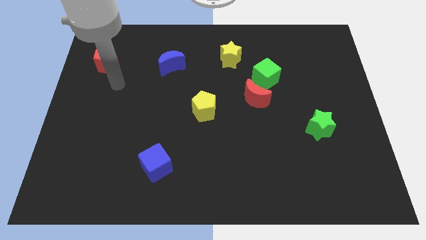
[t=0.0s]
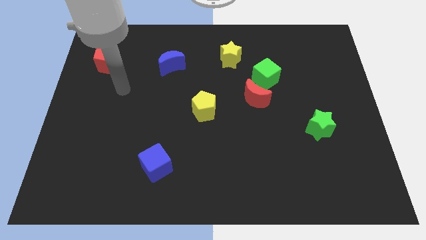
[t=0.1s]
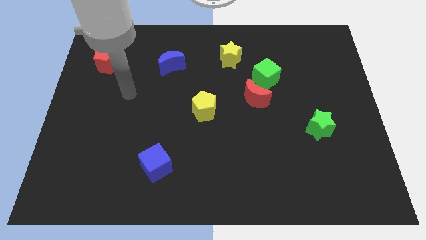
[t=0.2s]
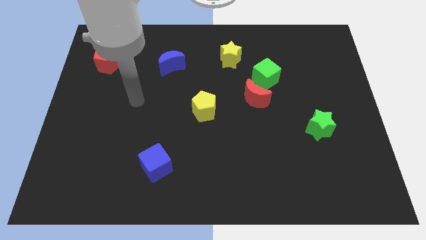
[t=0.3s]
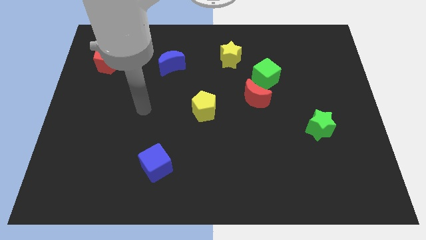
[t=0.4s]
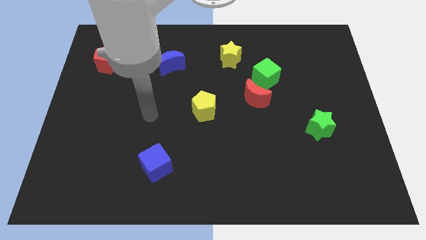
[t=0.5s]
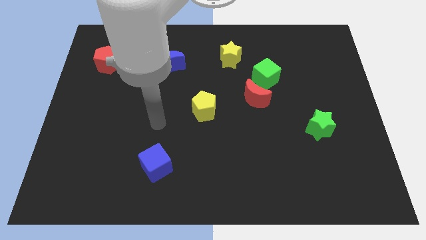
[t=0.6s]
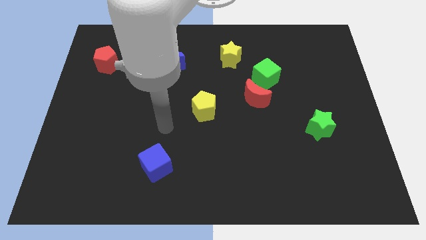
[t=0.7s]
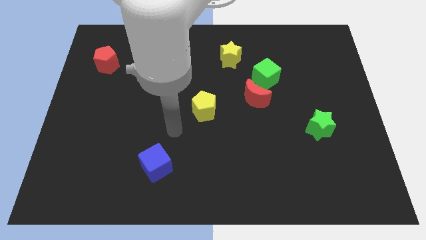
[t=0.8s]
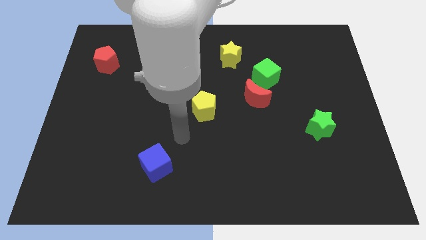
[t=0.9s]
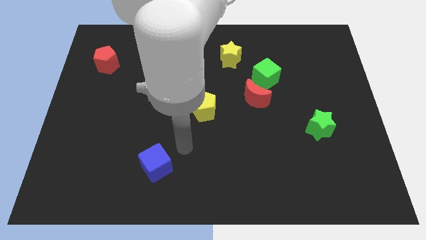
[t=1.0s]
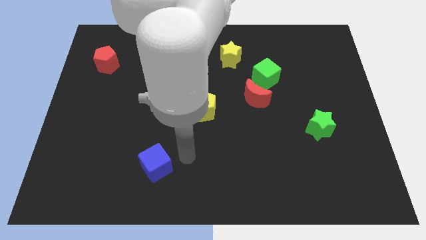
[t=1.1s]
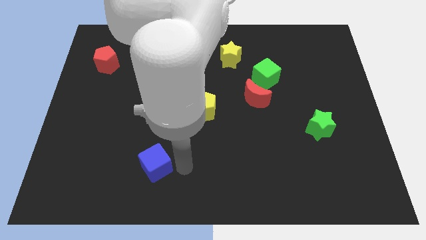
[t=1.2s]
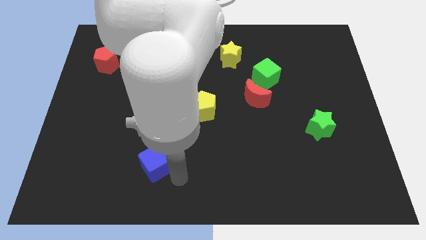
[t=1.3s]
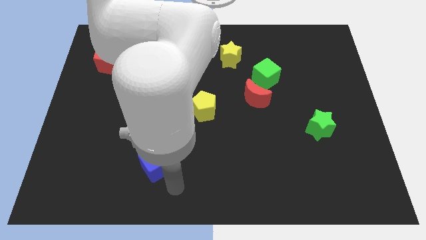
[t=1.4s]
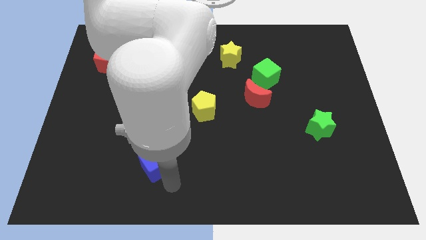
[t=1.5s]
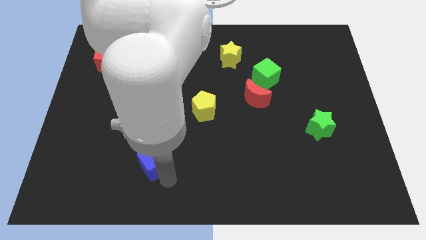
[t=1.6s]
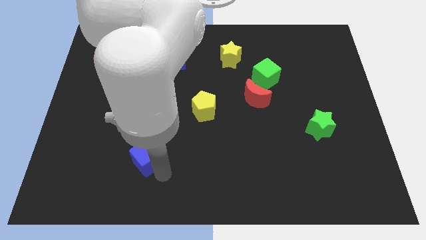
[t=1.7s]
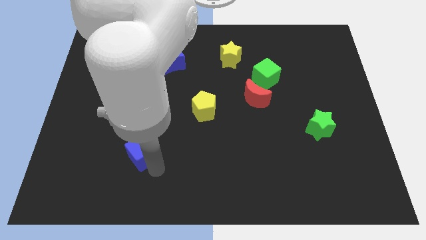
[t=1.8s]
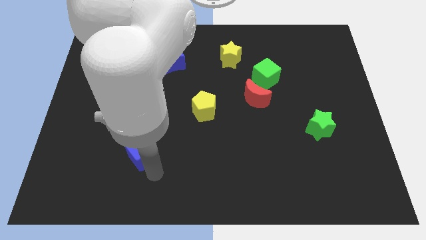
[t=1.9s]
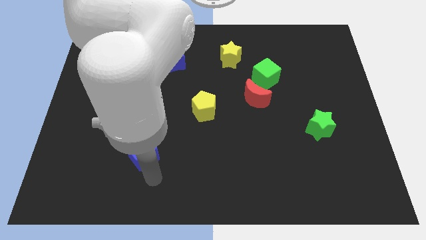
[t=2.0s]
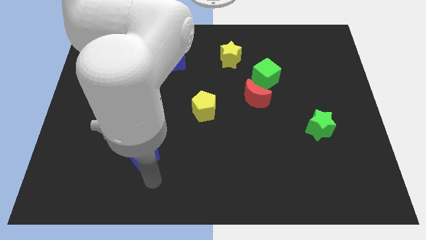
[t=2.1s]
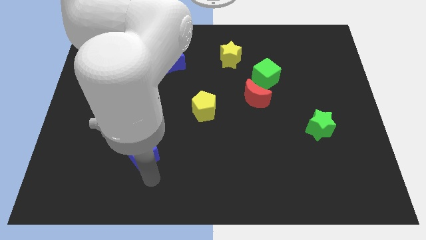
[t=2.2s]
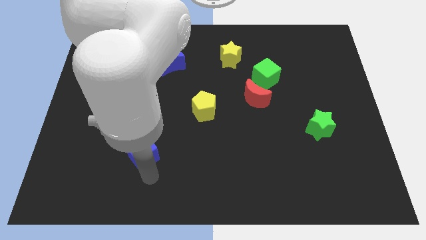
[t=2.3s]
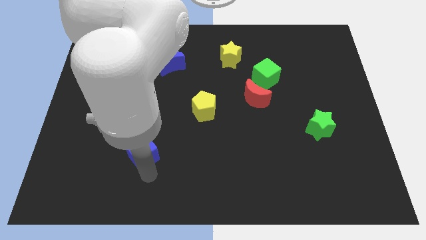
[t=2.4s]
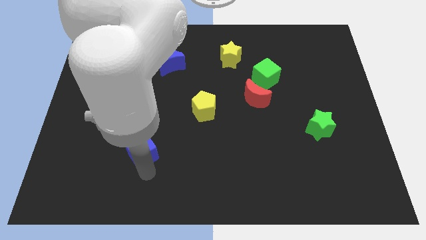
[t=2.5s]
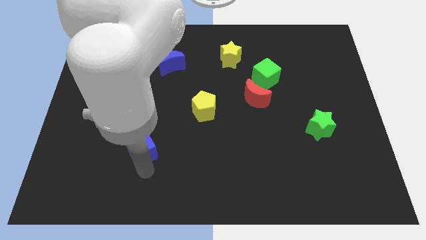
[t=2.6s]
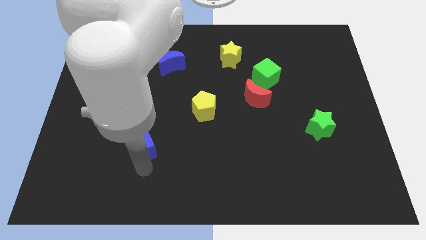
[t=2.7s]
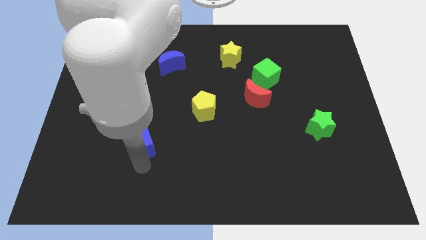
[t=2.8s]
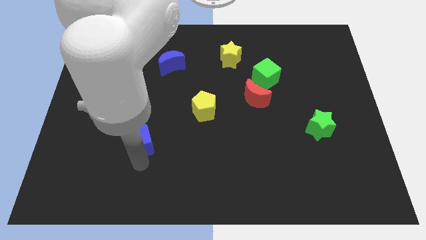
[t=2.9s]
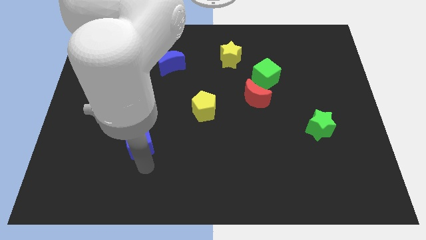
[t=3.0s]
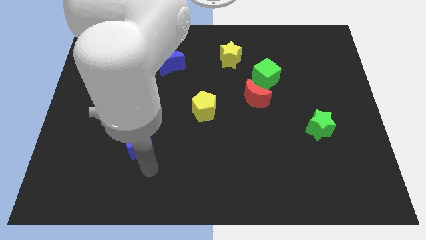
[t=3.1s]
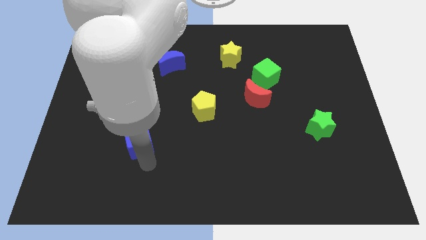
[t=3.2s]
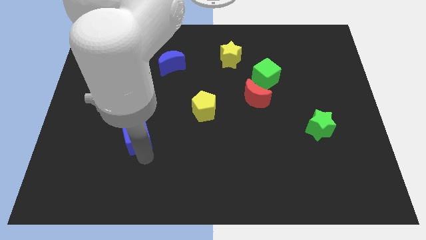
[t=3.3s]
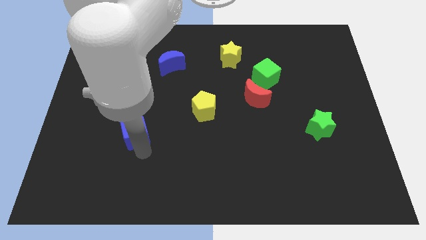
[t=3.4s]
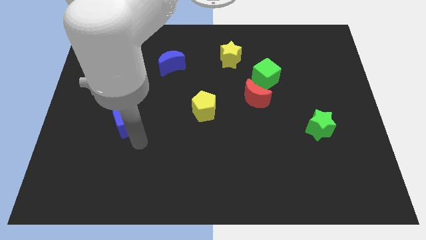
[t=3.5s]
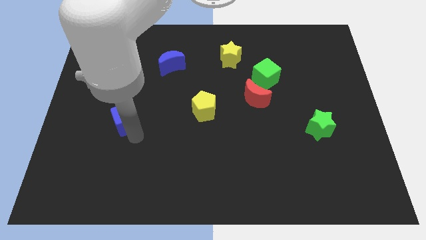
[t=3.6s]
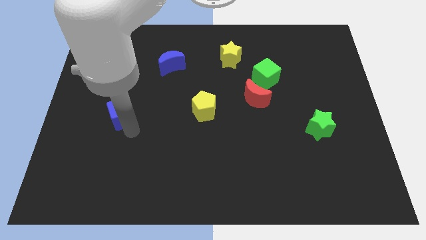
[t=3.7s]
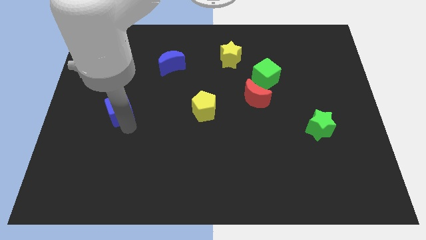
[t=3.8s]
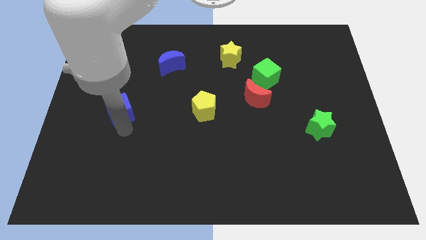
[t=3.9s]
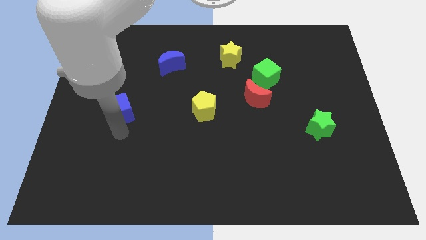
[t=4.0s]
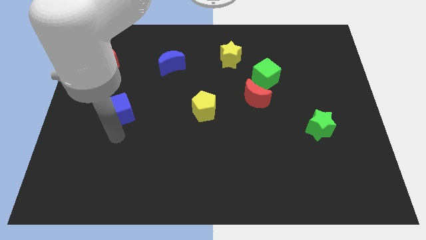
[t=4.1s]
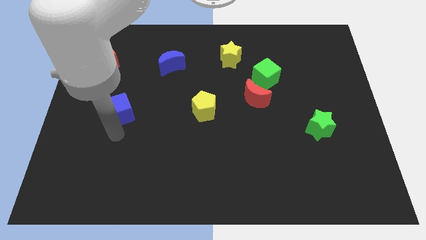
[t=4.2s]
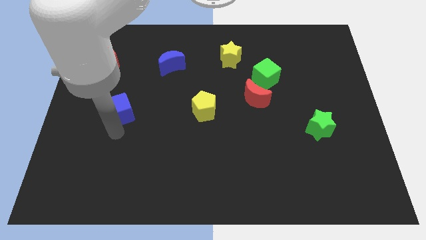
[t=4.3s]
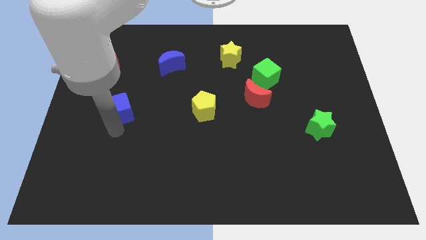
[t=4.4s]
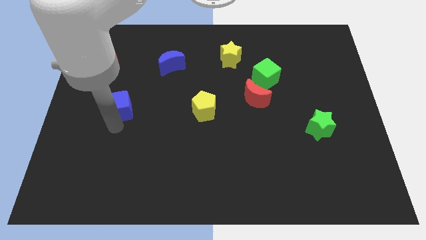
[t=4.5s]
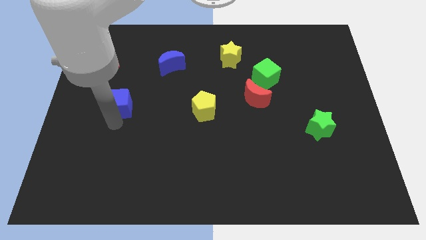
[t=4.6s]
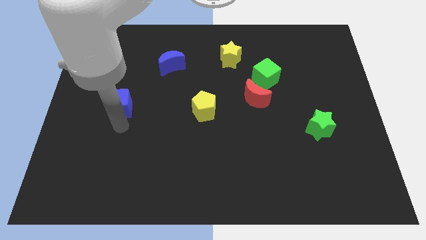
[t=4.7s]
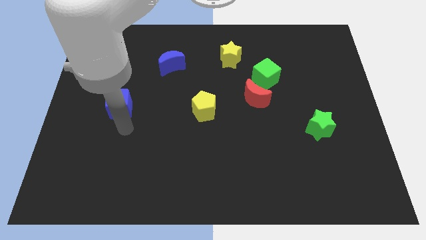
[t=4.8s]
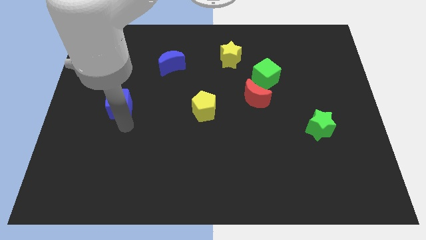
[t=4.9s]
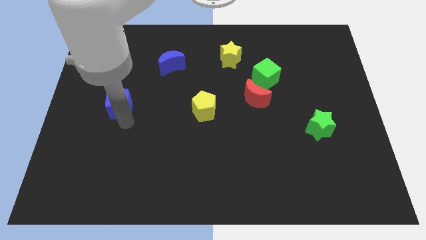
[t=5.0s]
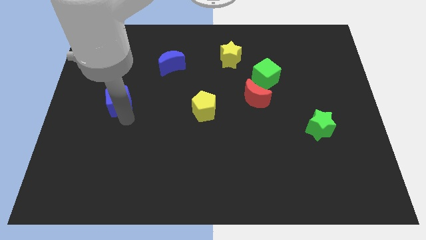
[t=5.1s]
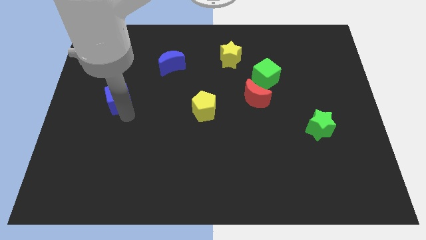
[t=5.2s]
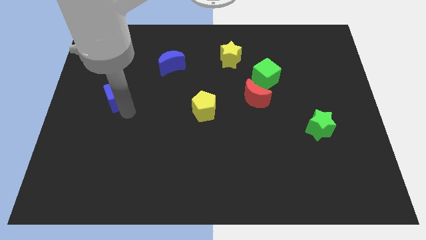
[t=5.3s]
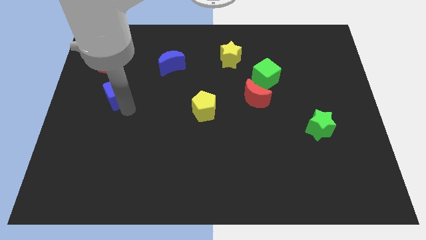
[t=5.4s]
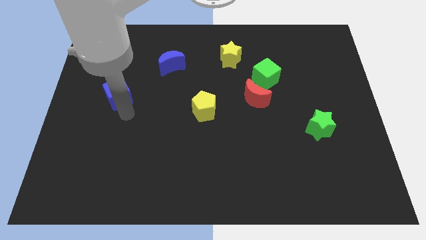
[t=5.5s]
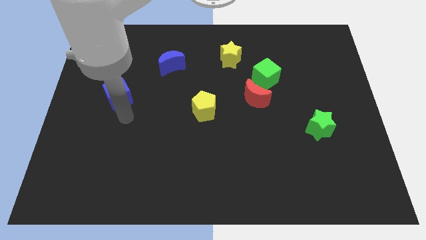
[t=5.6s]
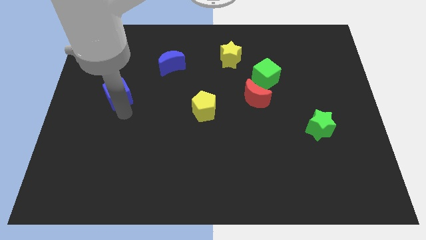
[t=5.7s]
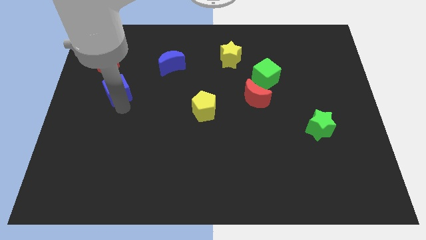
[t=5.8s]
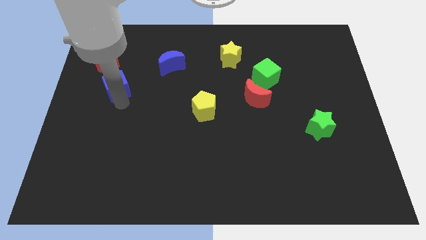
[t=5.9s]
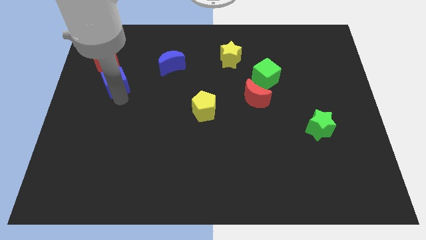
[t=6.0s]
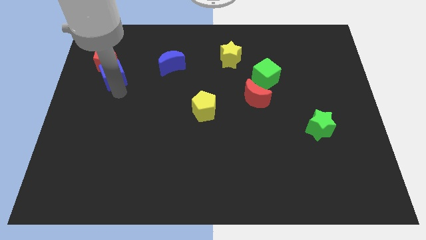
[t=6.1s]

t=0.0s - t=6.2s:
push the blue cube to the red pentagon

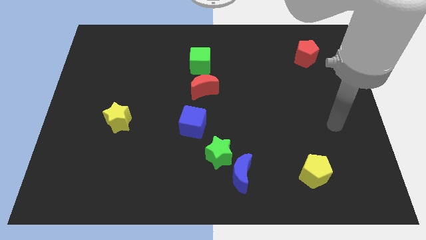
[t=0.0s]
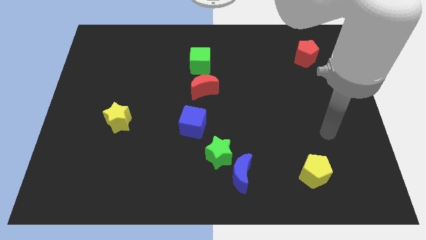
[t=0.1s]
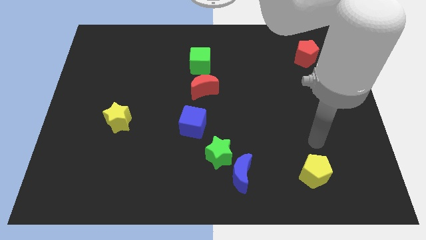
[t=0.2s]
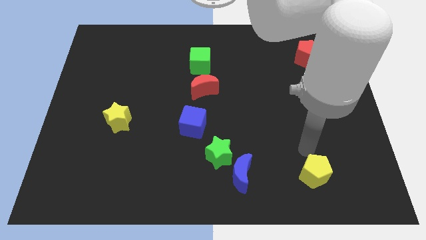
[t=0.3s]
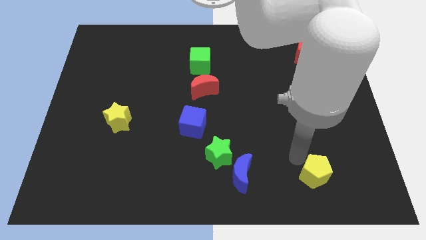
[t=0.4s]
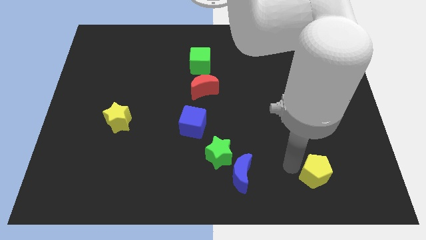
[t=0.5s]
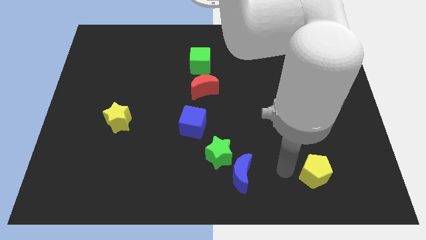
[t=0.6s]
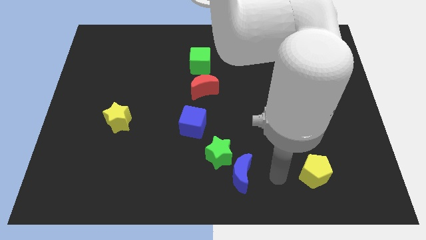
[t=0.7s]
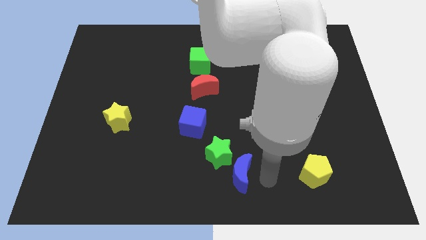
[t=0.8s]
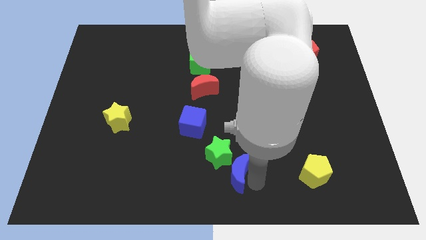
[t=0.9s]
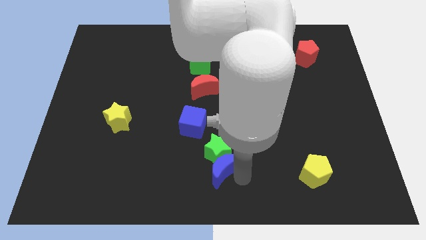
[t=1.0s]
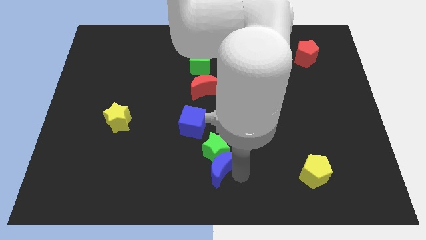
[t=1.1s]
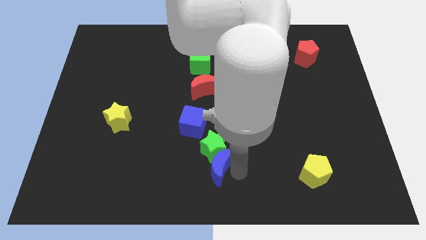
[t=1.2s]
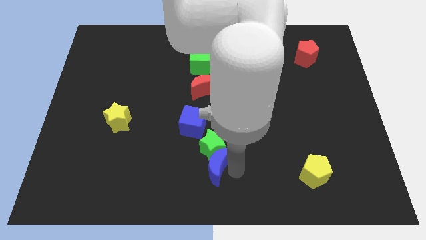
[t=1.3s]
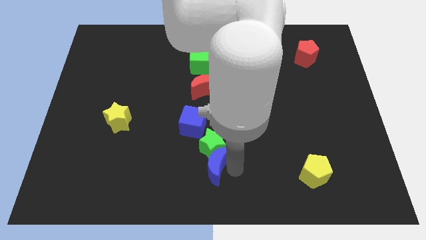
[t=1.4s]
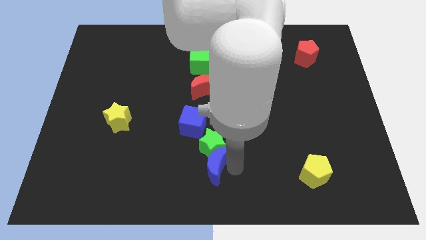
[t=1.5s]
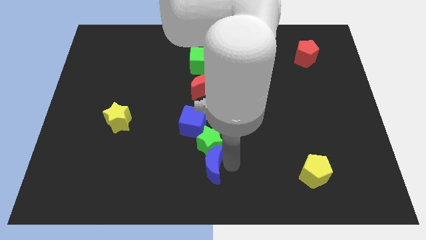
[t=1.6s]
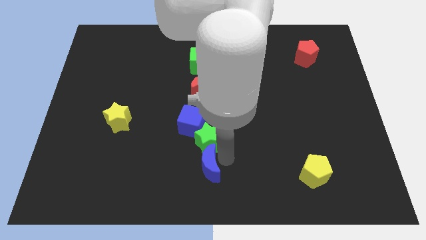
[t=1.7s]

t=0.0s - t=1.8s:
move the green star close to the blue cube
